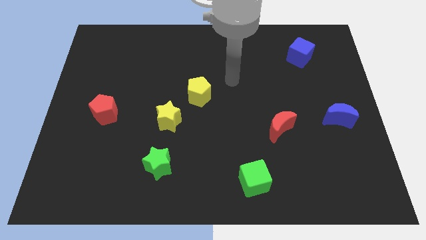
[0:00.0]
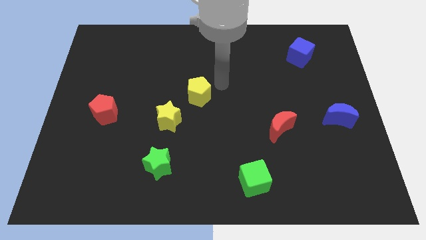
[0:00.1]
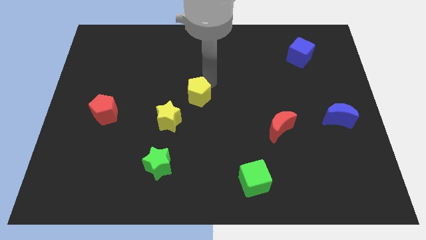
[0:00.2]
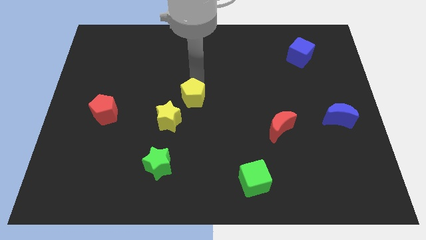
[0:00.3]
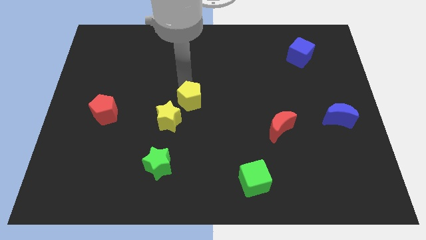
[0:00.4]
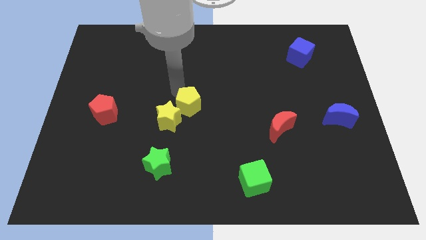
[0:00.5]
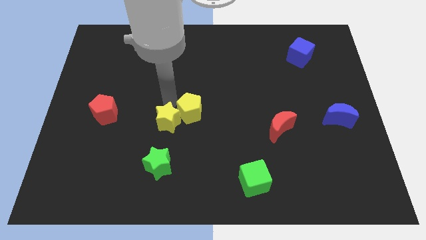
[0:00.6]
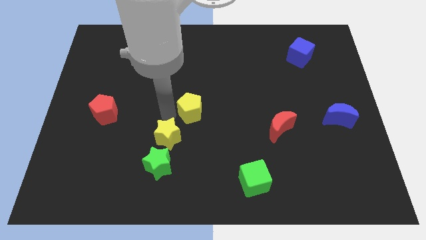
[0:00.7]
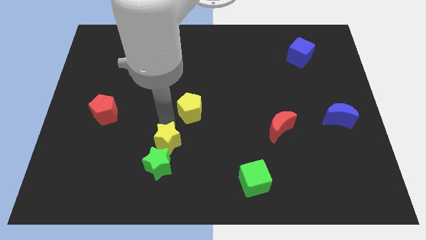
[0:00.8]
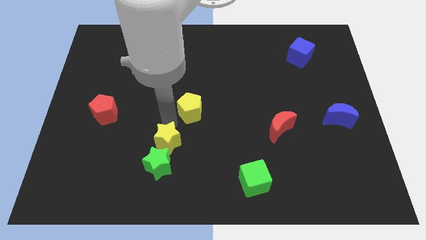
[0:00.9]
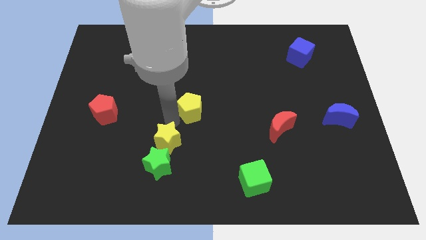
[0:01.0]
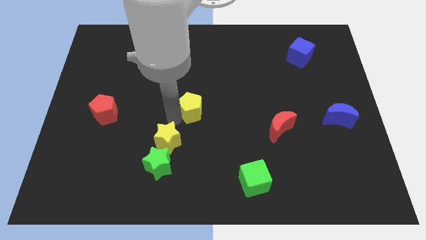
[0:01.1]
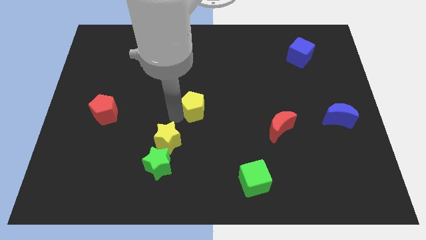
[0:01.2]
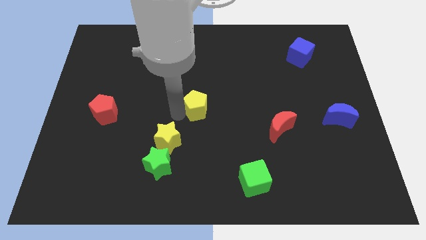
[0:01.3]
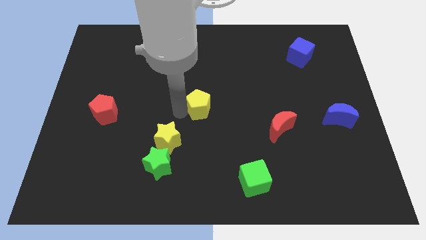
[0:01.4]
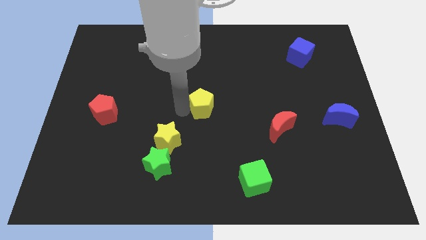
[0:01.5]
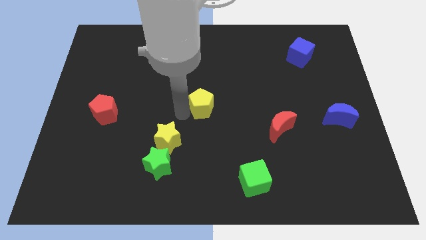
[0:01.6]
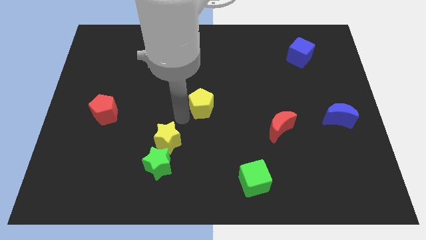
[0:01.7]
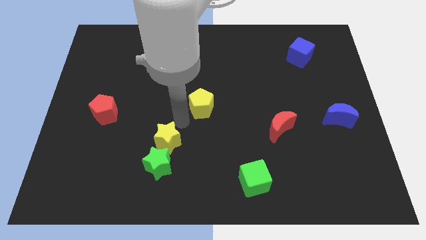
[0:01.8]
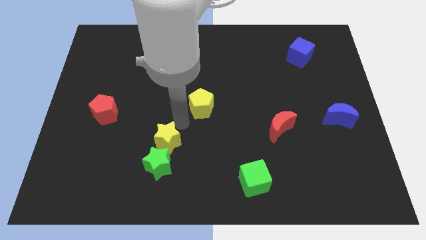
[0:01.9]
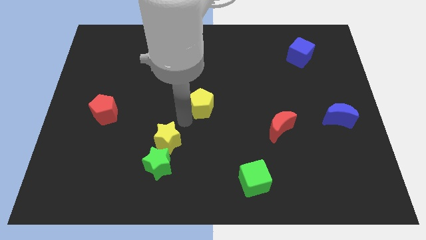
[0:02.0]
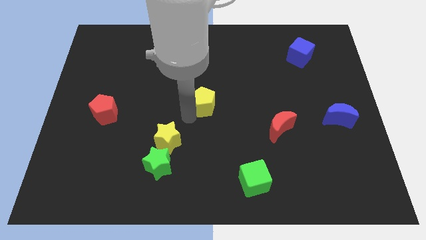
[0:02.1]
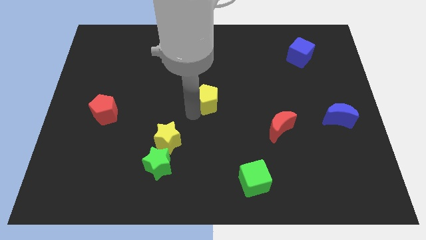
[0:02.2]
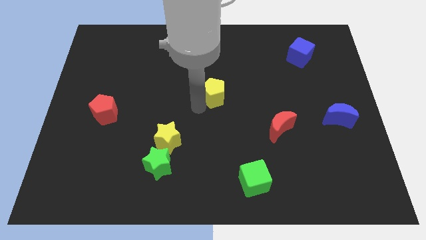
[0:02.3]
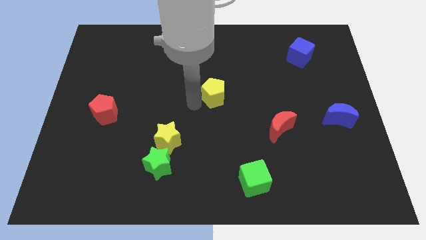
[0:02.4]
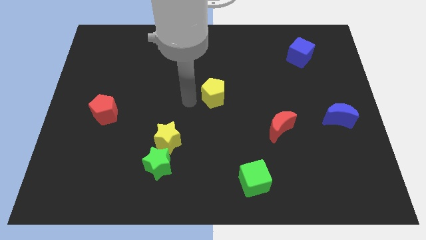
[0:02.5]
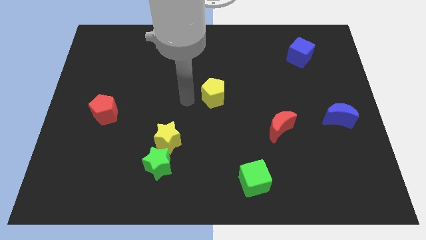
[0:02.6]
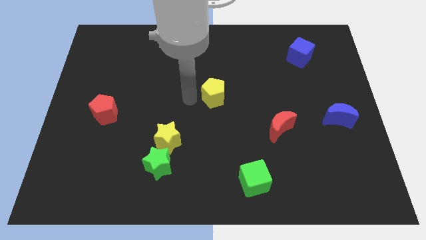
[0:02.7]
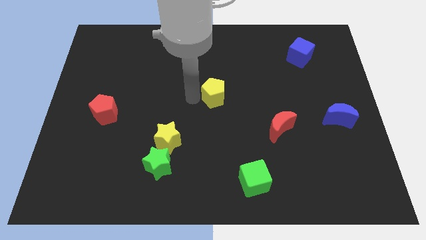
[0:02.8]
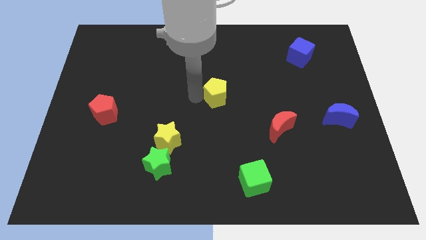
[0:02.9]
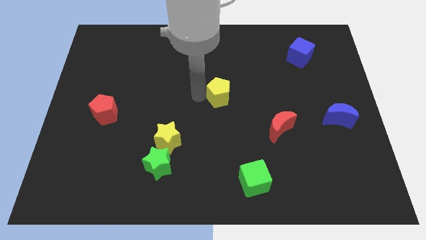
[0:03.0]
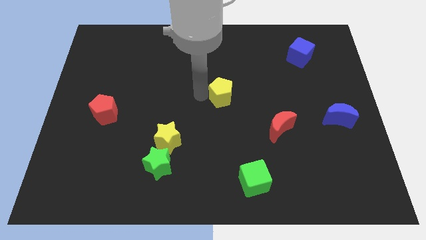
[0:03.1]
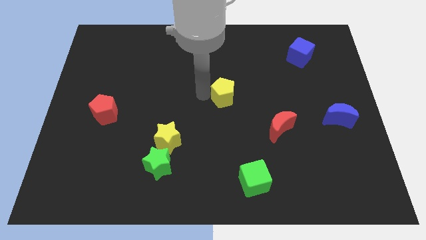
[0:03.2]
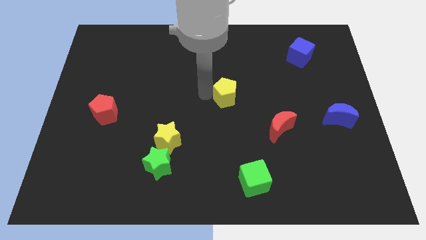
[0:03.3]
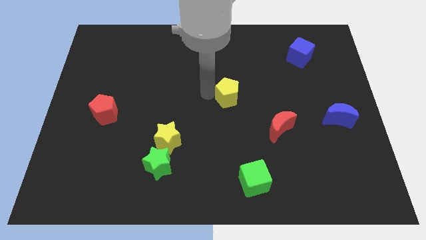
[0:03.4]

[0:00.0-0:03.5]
move the yellow pentagon a bit to the right

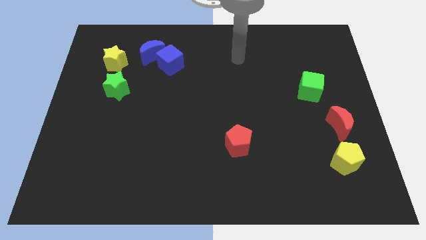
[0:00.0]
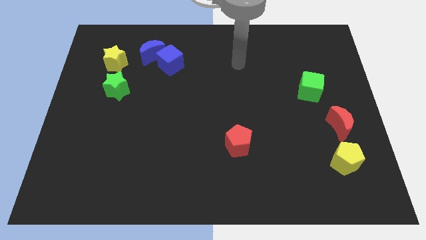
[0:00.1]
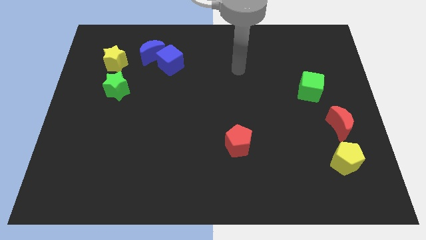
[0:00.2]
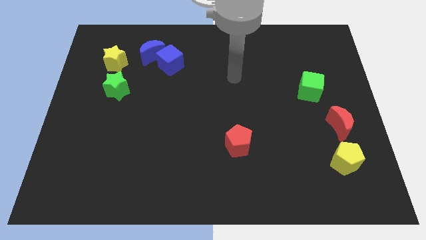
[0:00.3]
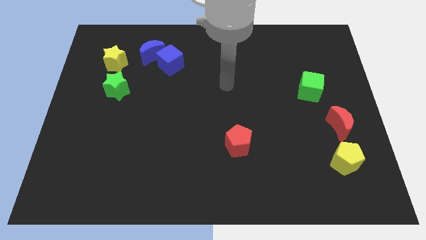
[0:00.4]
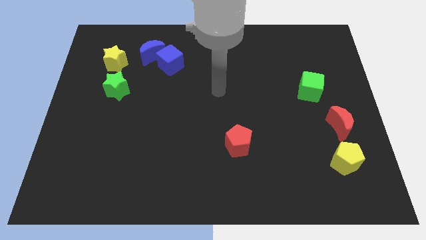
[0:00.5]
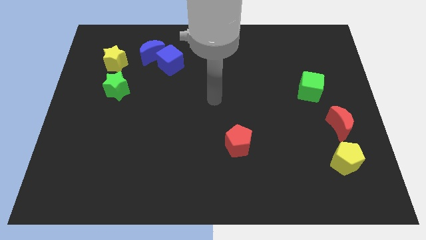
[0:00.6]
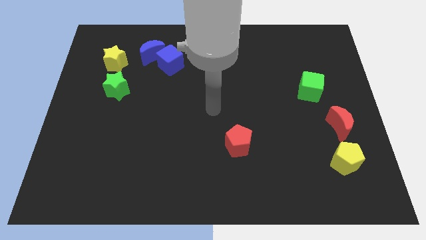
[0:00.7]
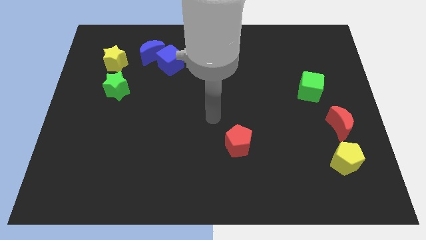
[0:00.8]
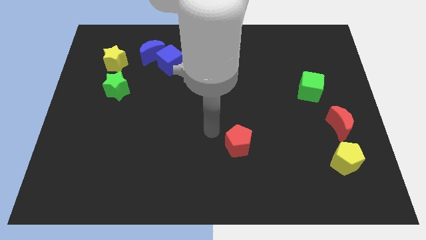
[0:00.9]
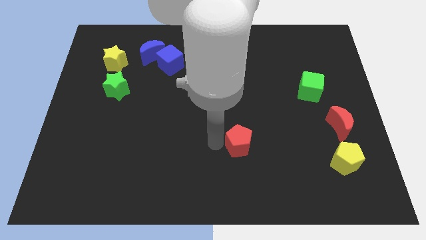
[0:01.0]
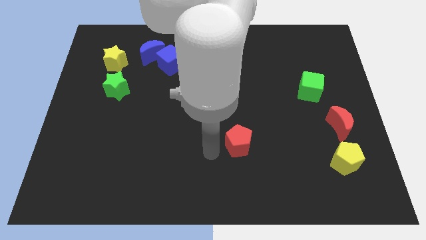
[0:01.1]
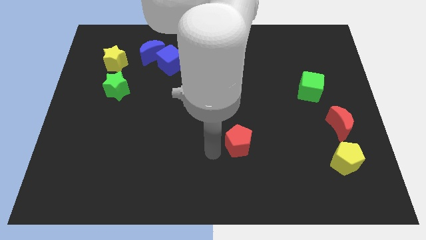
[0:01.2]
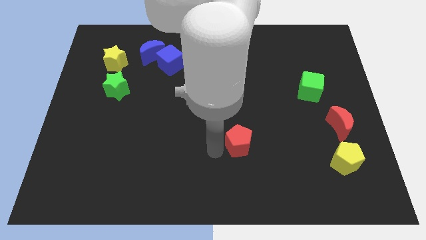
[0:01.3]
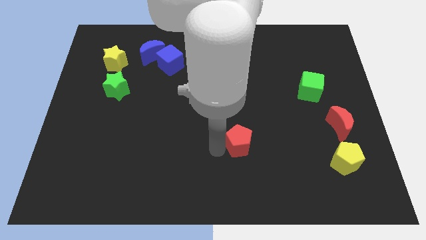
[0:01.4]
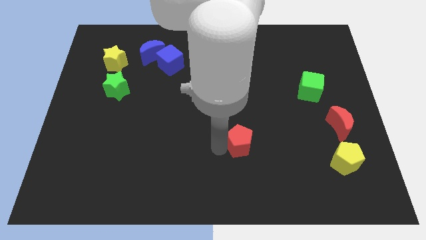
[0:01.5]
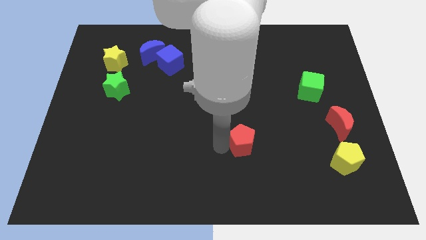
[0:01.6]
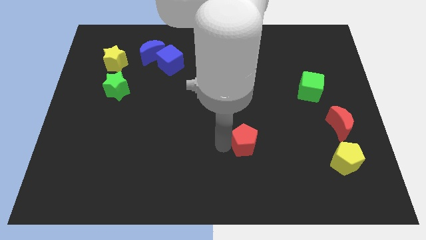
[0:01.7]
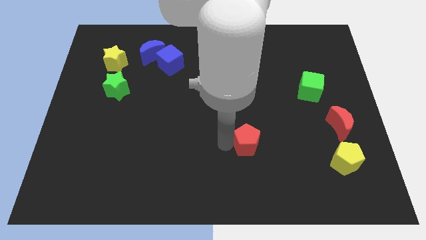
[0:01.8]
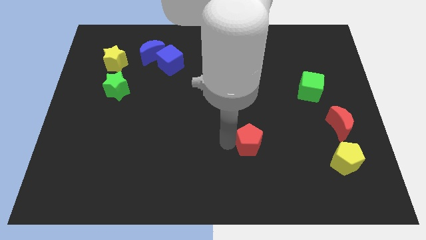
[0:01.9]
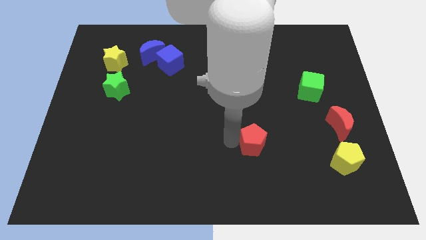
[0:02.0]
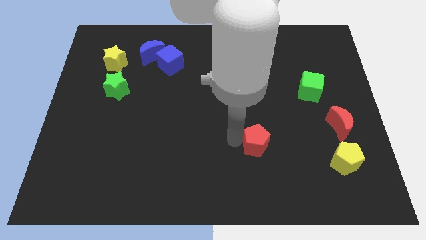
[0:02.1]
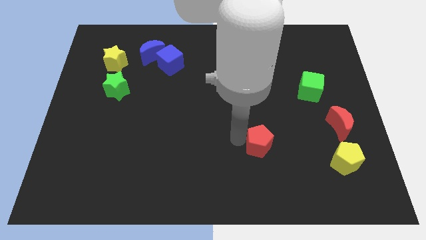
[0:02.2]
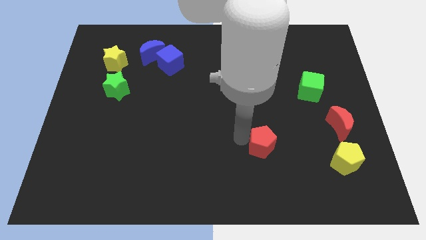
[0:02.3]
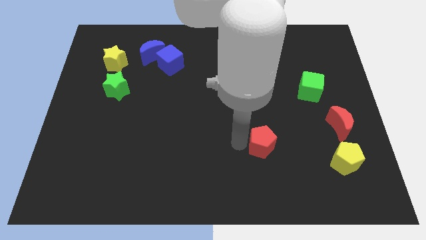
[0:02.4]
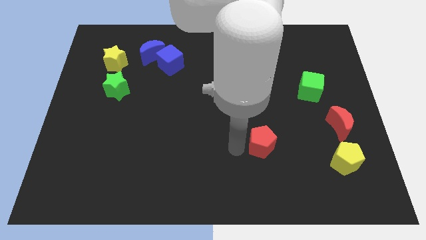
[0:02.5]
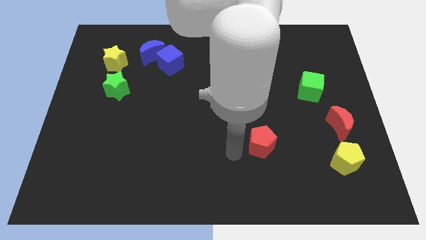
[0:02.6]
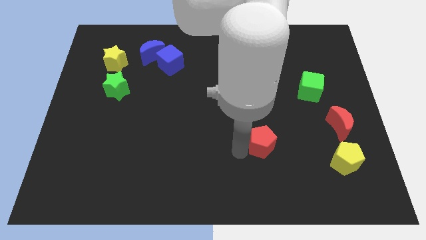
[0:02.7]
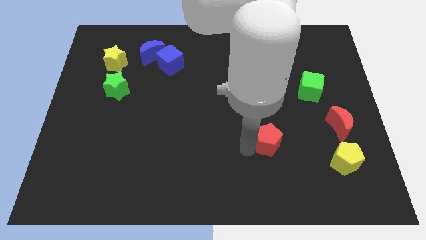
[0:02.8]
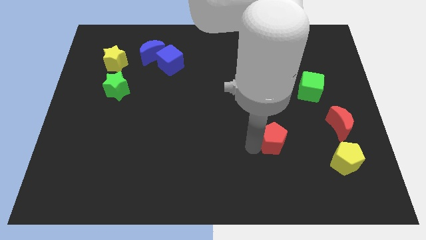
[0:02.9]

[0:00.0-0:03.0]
move the red pentagon slightly right

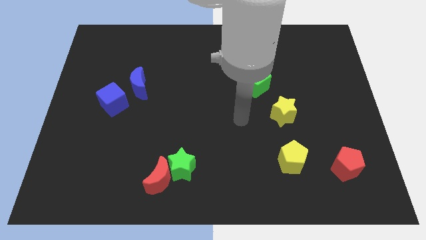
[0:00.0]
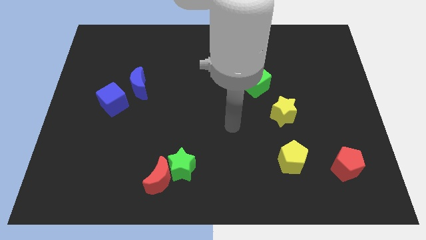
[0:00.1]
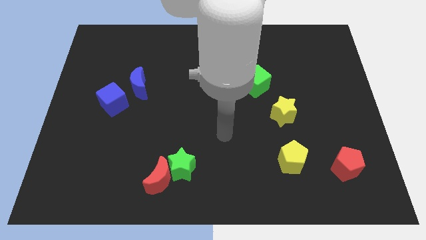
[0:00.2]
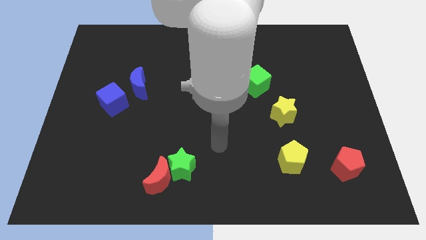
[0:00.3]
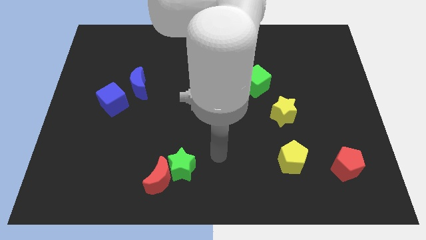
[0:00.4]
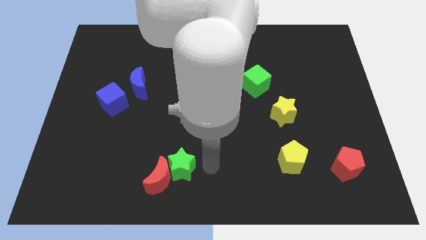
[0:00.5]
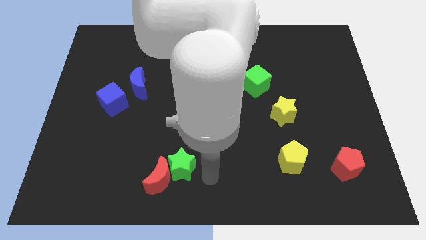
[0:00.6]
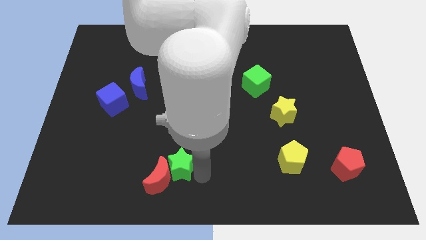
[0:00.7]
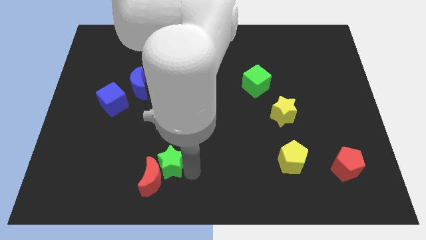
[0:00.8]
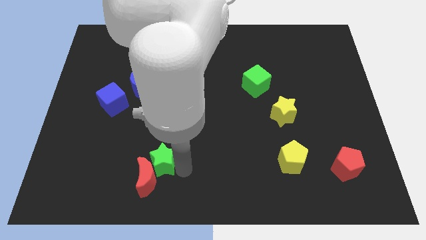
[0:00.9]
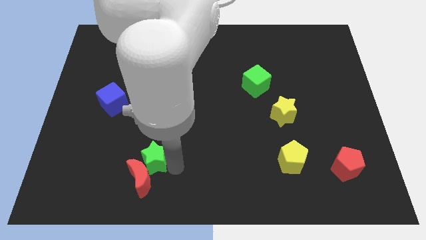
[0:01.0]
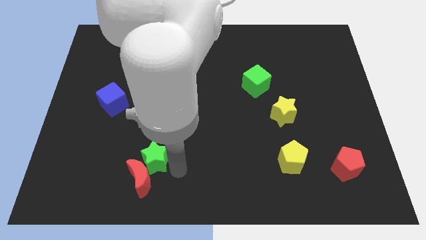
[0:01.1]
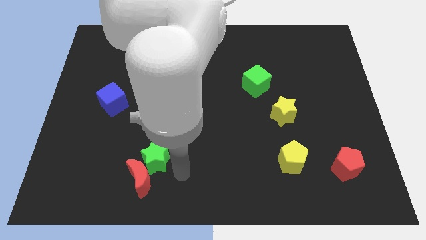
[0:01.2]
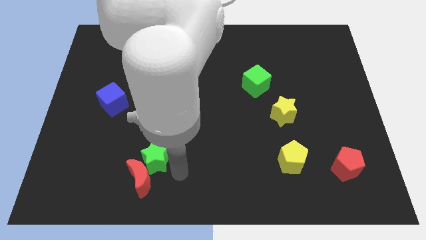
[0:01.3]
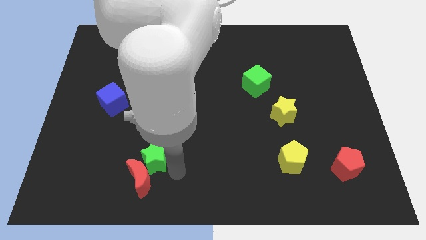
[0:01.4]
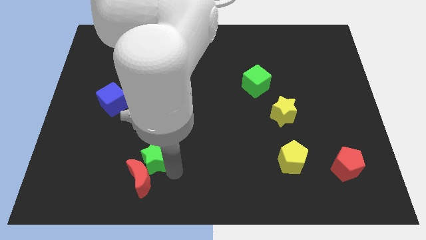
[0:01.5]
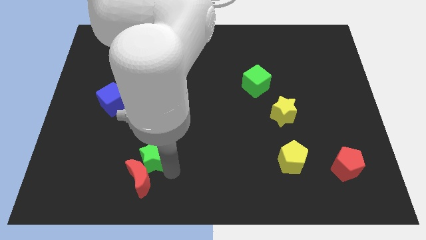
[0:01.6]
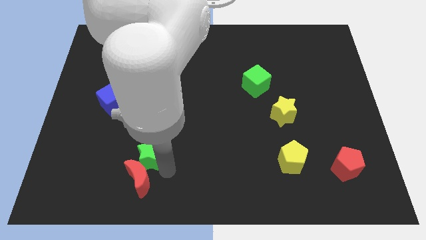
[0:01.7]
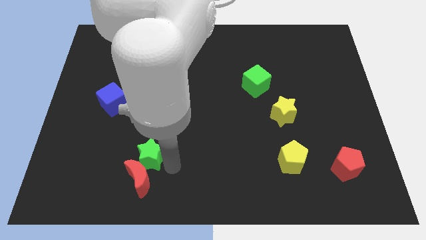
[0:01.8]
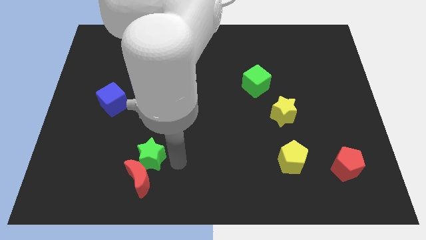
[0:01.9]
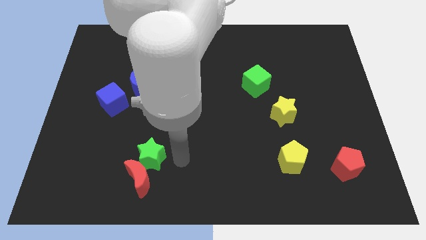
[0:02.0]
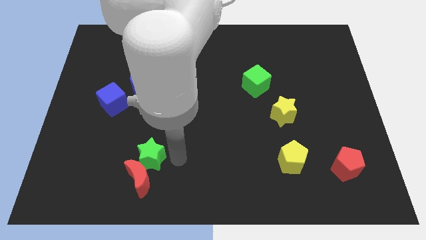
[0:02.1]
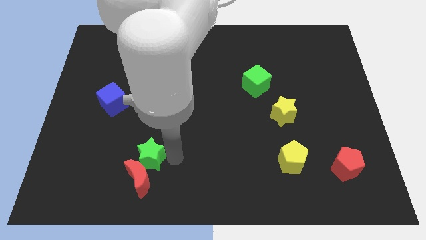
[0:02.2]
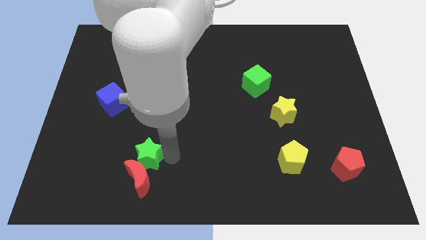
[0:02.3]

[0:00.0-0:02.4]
push the green star a bit left
